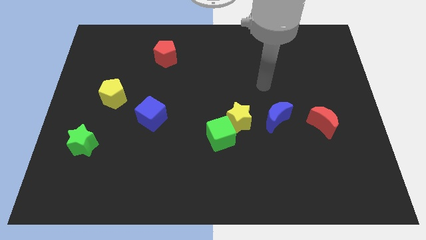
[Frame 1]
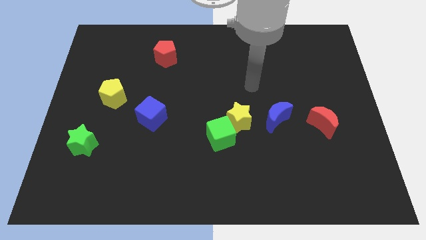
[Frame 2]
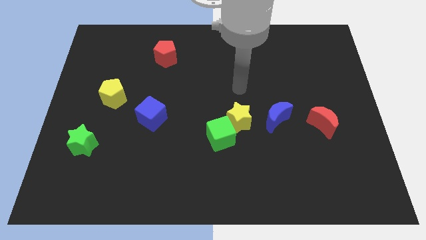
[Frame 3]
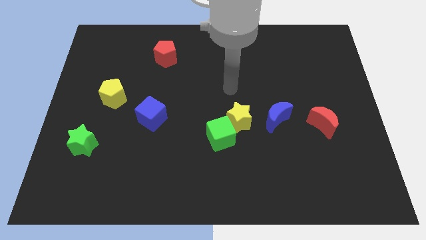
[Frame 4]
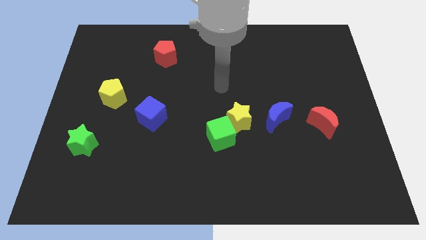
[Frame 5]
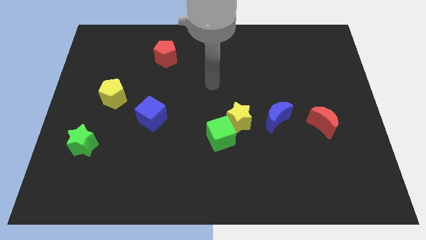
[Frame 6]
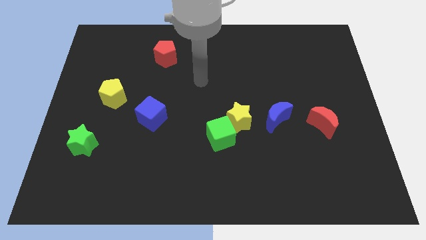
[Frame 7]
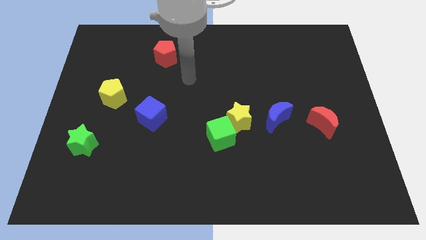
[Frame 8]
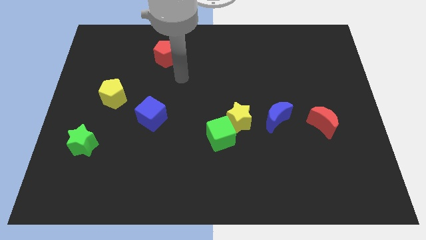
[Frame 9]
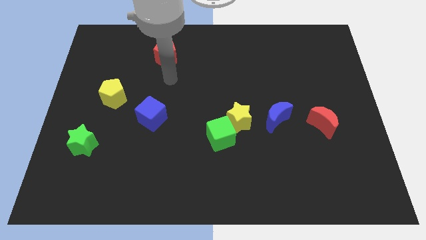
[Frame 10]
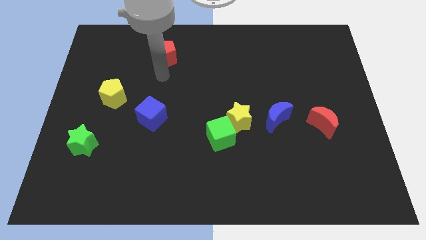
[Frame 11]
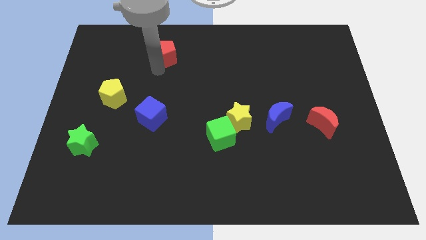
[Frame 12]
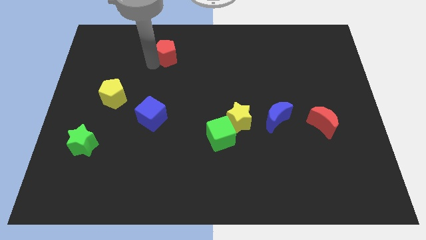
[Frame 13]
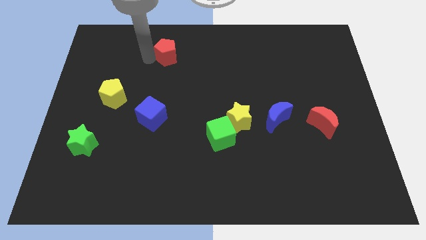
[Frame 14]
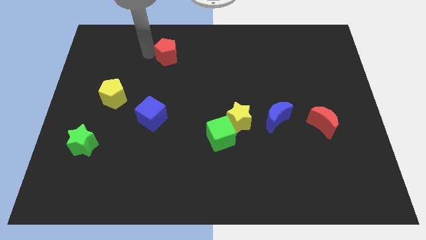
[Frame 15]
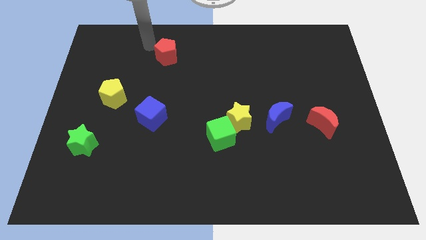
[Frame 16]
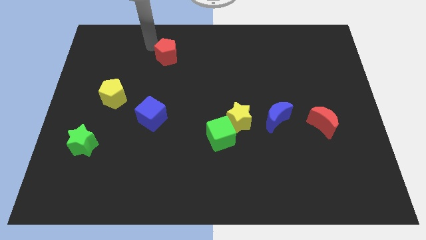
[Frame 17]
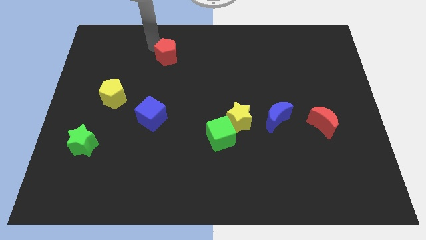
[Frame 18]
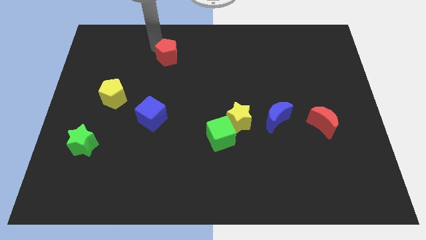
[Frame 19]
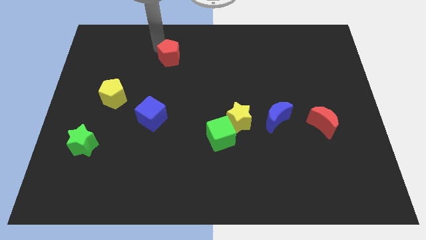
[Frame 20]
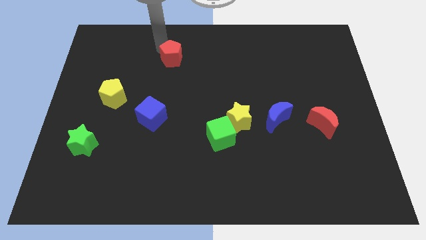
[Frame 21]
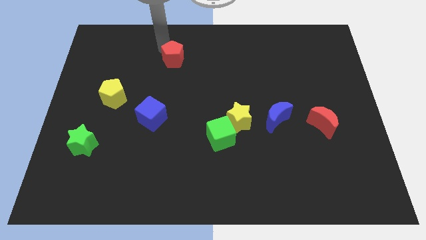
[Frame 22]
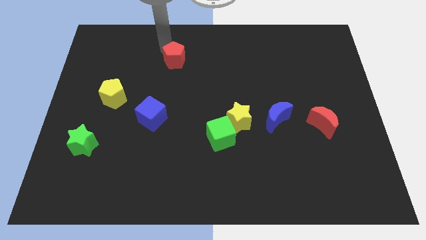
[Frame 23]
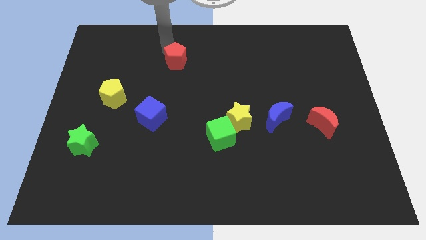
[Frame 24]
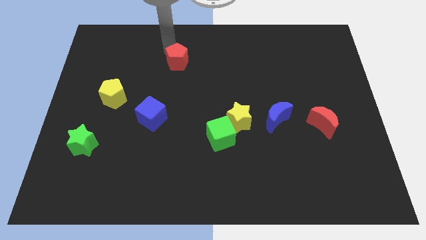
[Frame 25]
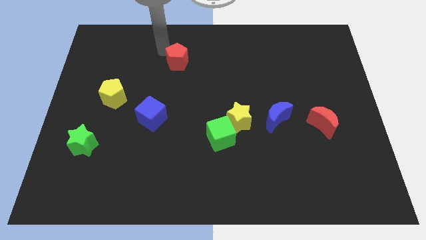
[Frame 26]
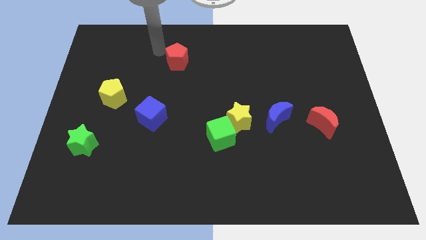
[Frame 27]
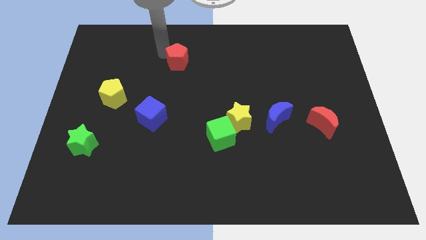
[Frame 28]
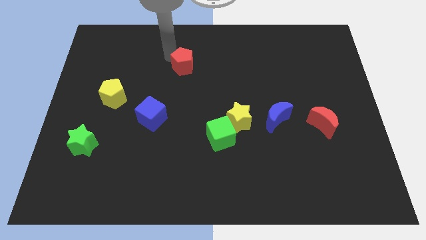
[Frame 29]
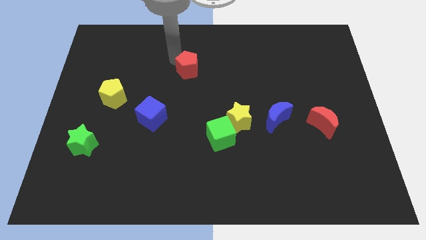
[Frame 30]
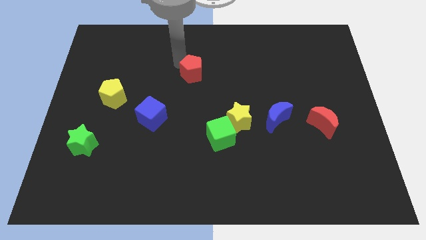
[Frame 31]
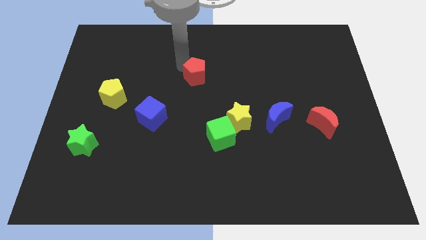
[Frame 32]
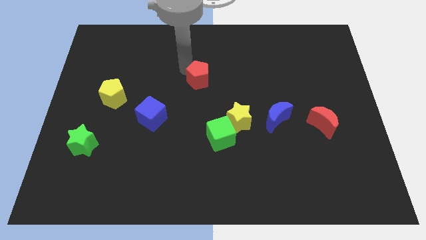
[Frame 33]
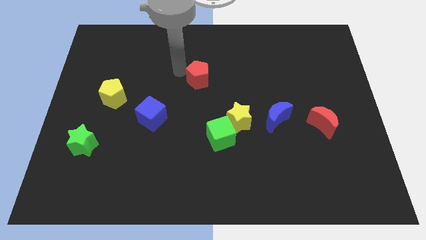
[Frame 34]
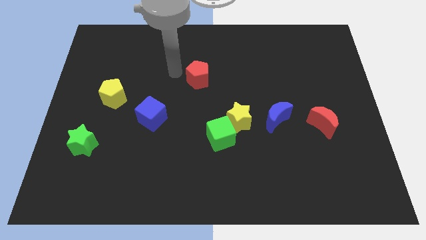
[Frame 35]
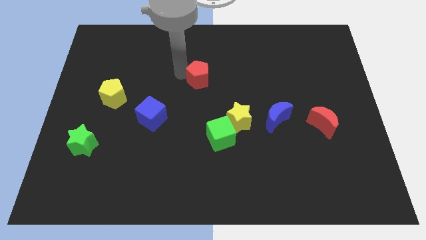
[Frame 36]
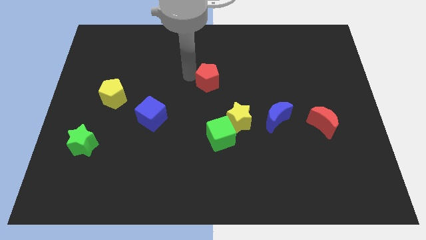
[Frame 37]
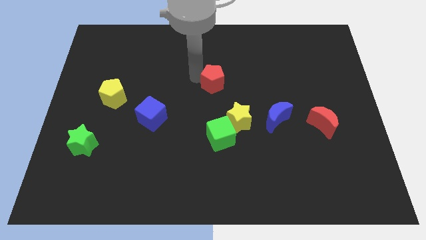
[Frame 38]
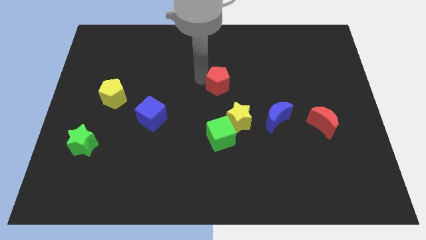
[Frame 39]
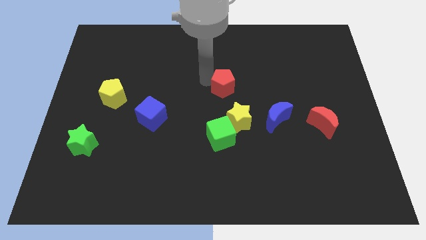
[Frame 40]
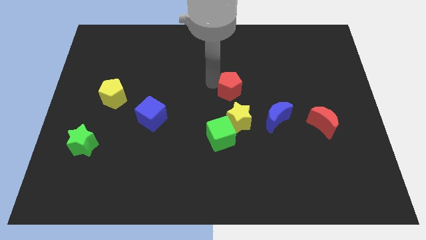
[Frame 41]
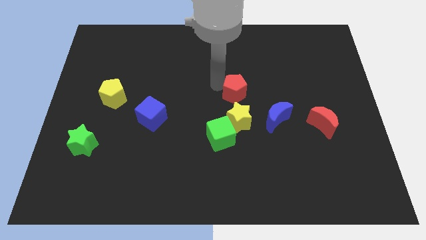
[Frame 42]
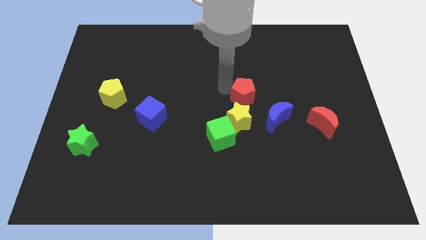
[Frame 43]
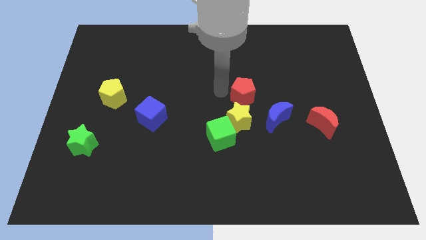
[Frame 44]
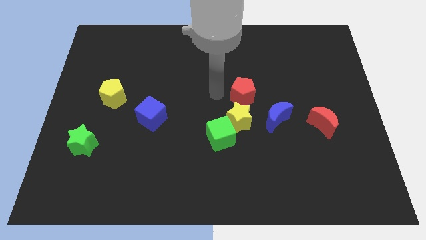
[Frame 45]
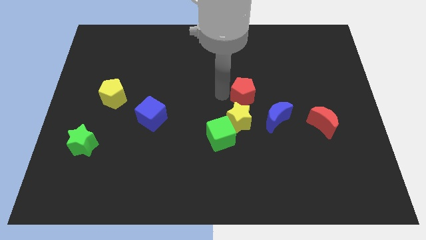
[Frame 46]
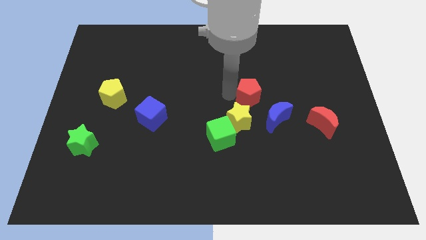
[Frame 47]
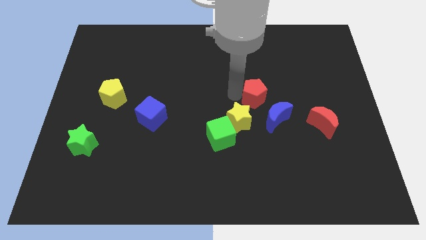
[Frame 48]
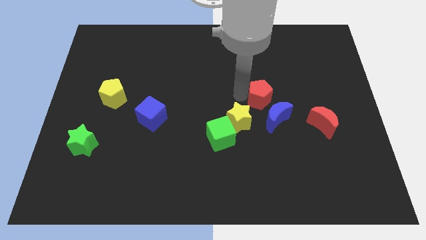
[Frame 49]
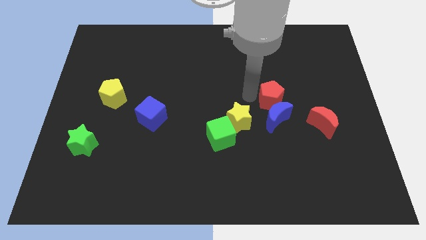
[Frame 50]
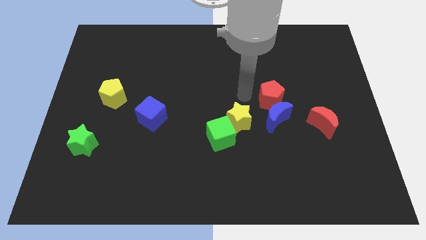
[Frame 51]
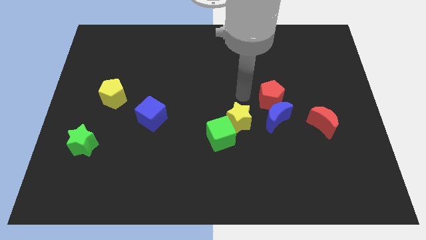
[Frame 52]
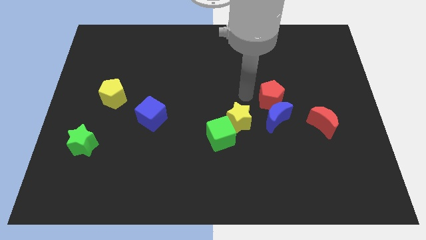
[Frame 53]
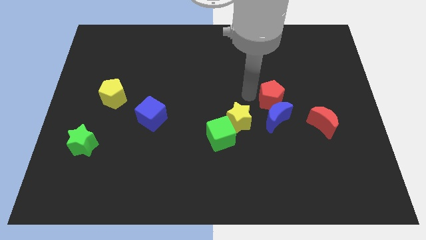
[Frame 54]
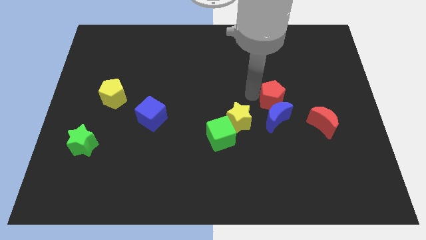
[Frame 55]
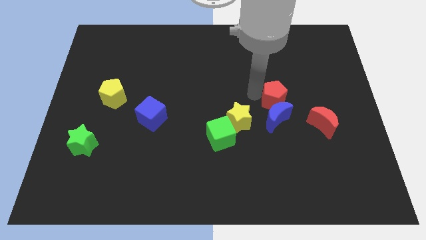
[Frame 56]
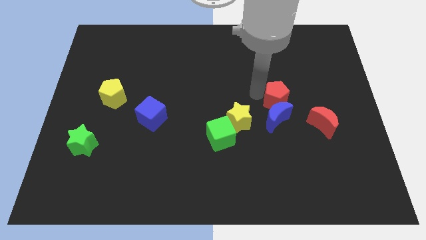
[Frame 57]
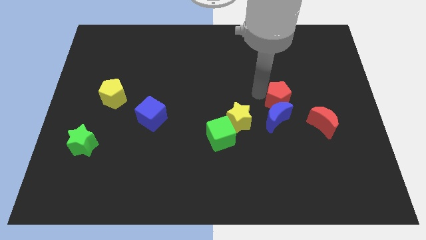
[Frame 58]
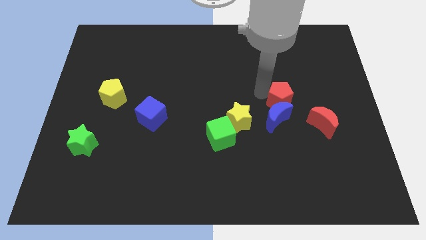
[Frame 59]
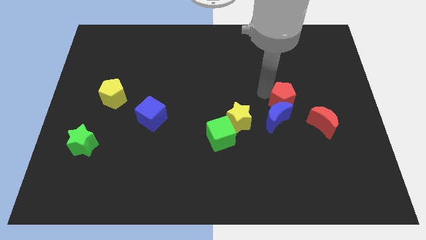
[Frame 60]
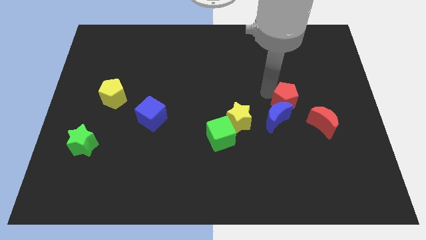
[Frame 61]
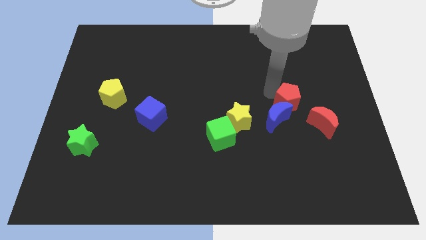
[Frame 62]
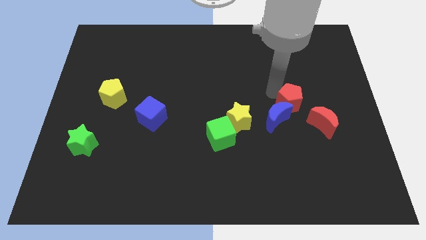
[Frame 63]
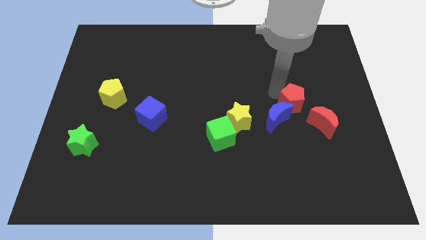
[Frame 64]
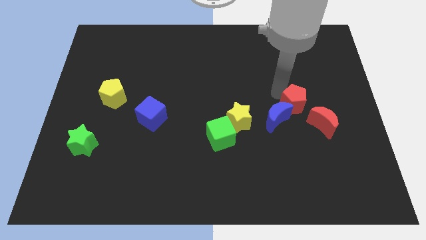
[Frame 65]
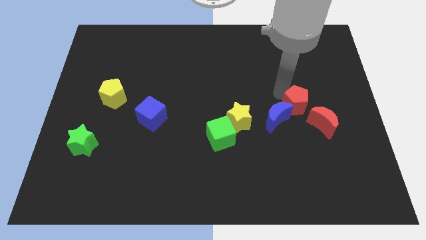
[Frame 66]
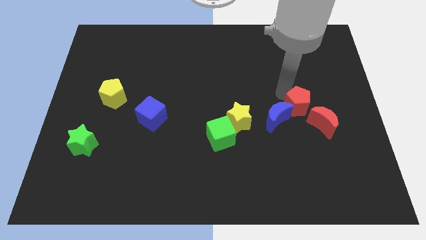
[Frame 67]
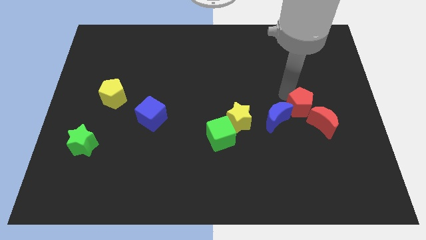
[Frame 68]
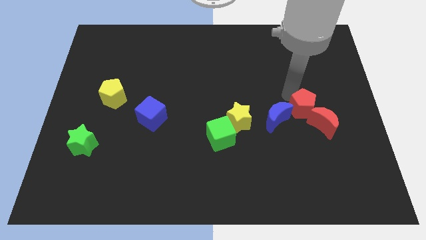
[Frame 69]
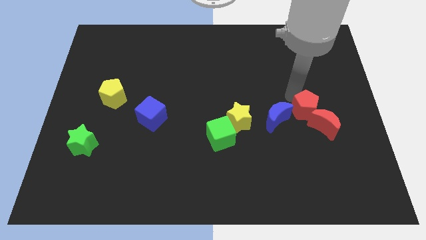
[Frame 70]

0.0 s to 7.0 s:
slide the red pentagon towards the red moon

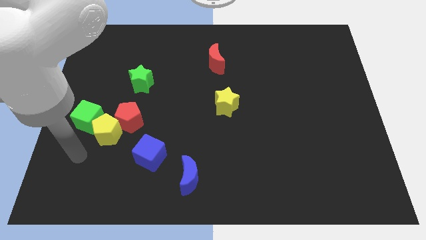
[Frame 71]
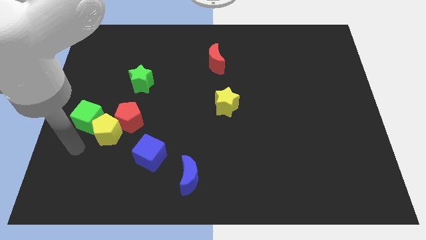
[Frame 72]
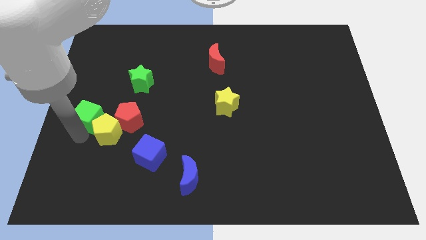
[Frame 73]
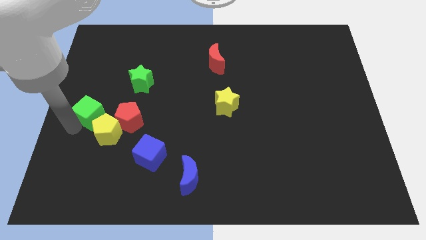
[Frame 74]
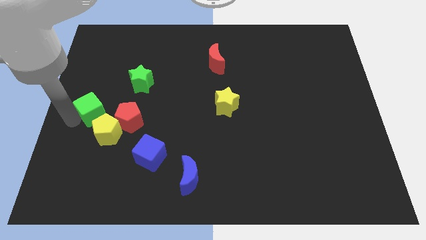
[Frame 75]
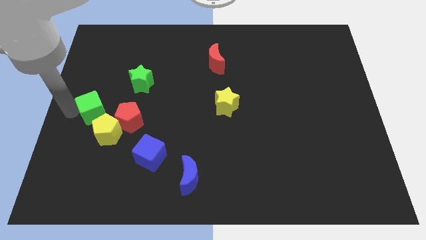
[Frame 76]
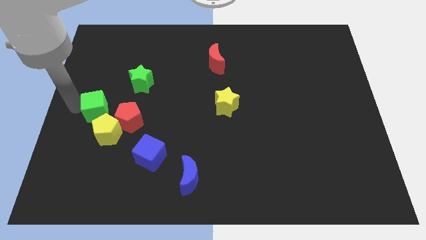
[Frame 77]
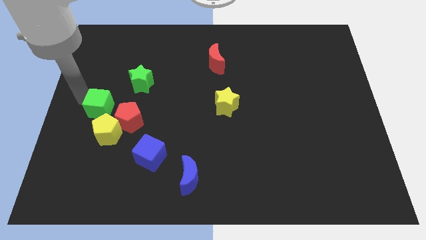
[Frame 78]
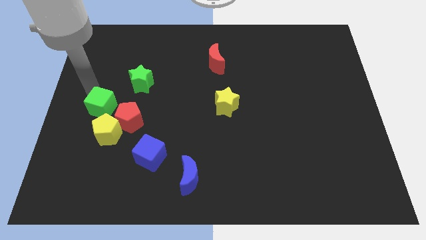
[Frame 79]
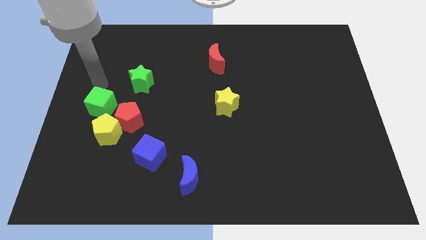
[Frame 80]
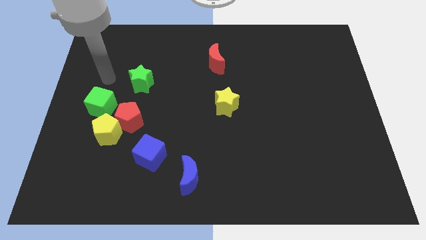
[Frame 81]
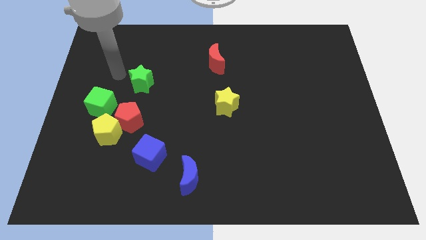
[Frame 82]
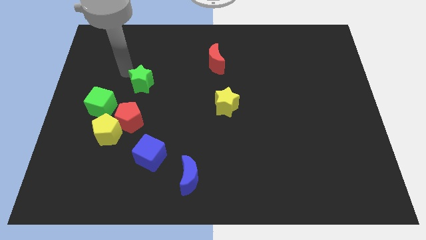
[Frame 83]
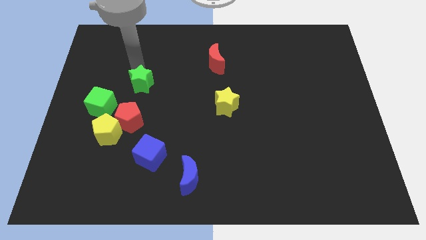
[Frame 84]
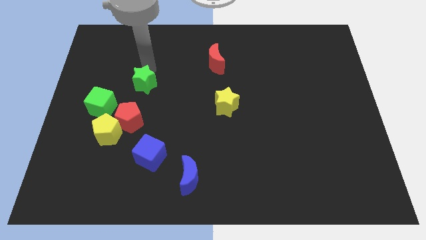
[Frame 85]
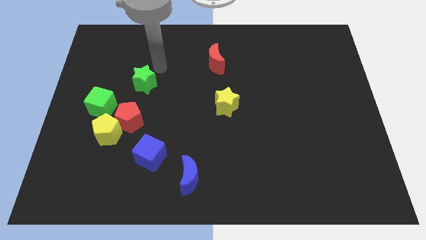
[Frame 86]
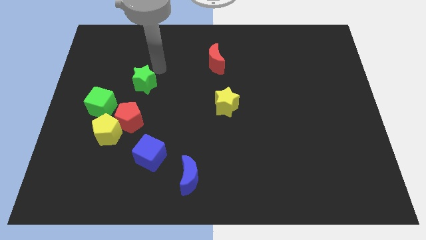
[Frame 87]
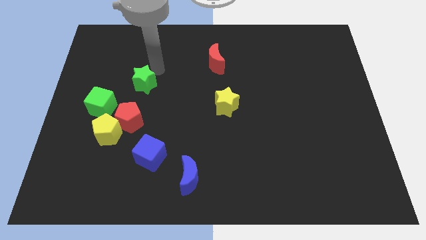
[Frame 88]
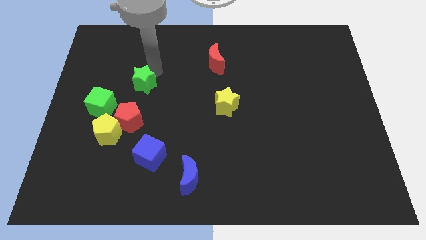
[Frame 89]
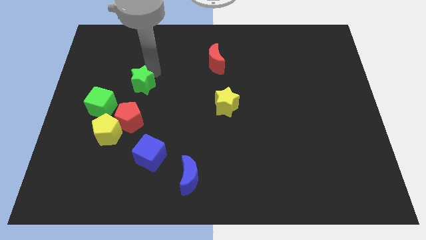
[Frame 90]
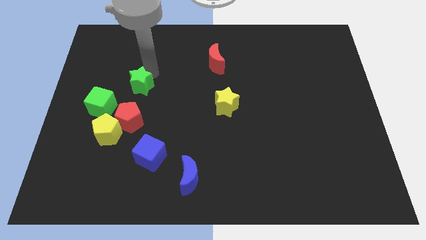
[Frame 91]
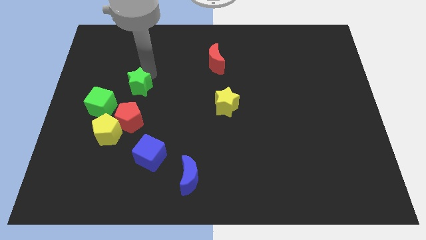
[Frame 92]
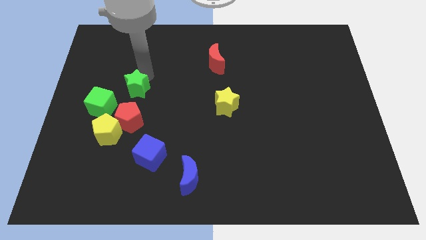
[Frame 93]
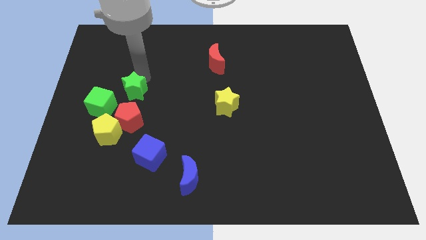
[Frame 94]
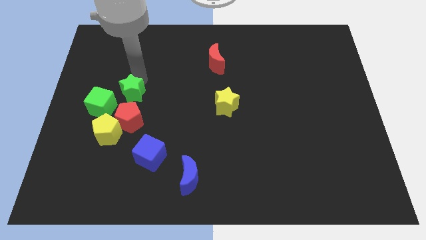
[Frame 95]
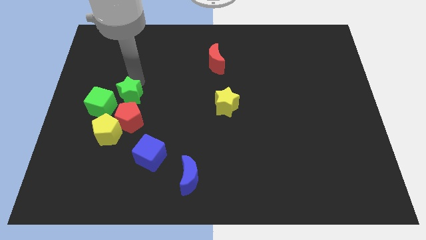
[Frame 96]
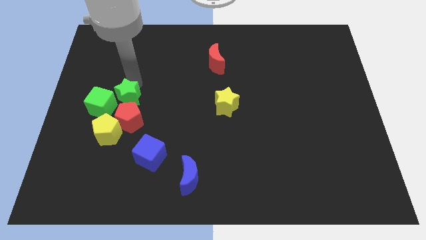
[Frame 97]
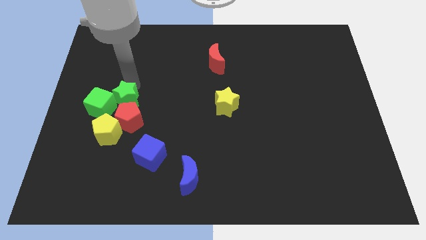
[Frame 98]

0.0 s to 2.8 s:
push the green star to the red pentagon
